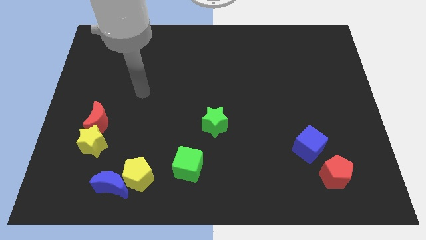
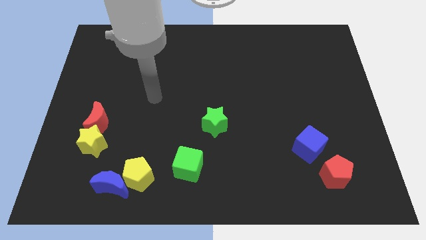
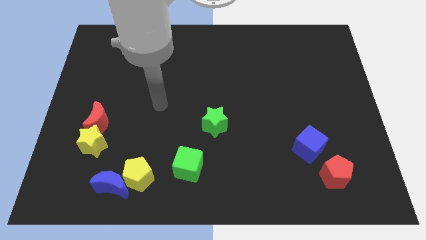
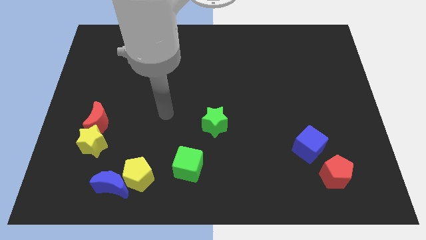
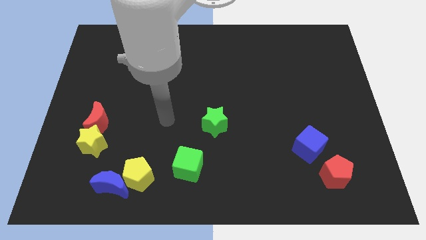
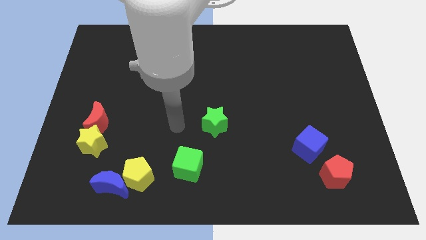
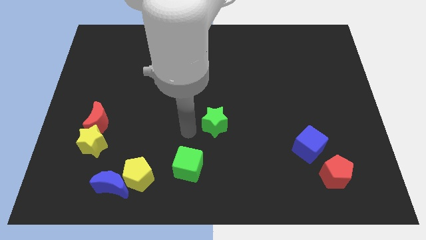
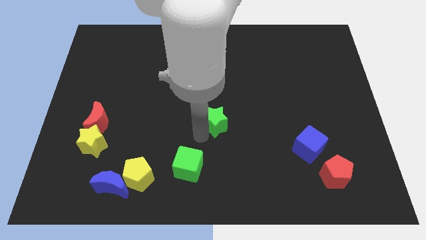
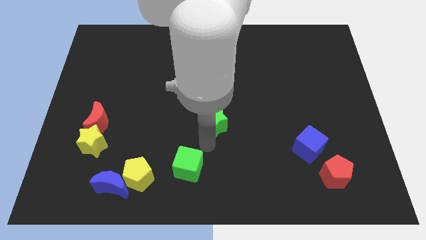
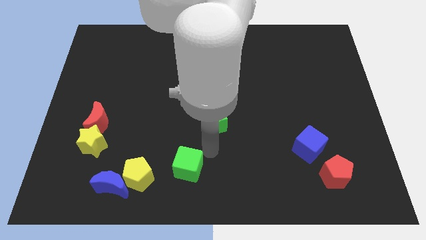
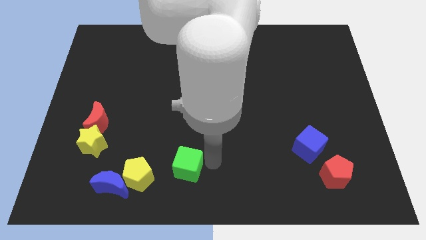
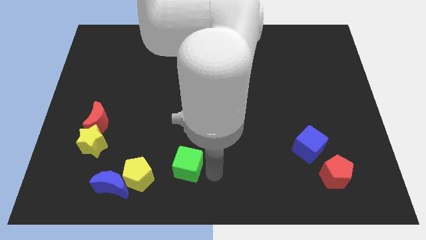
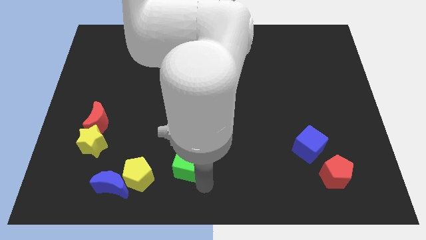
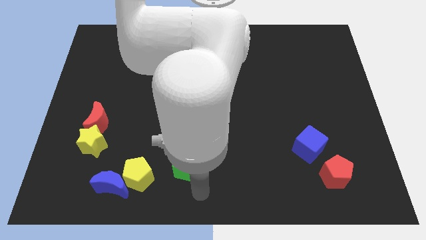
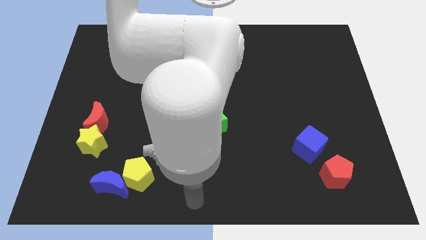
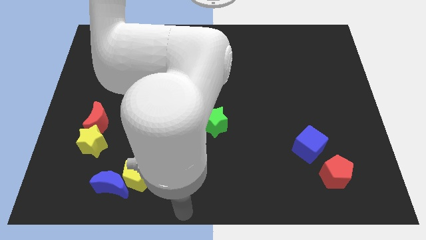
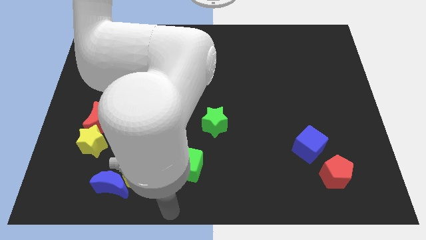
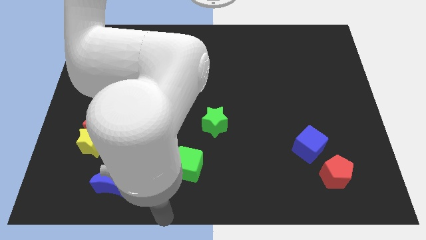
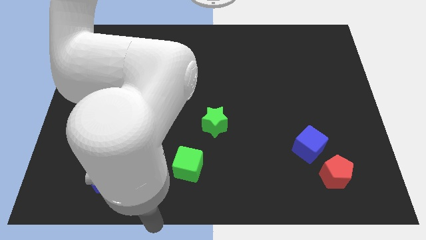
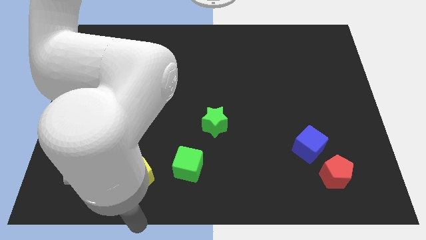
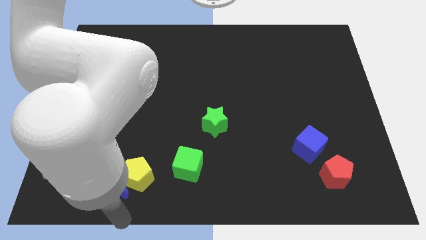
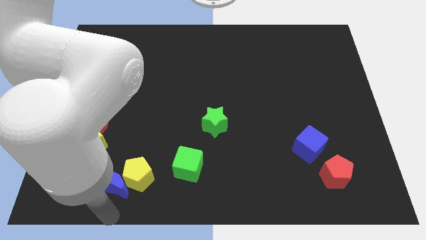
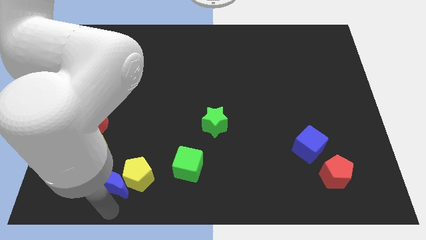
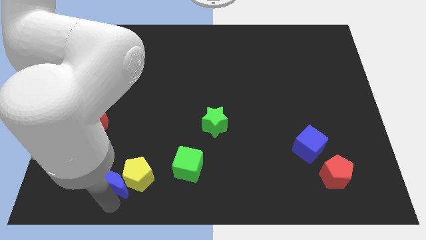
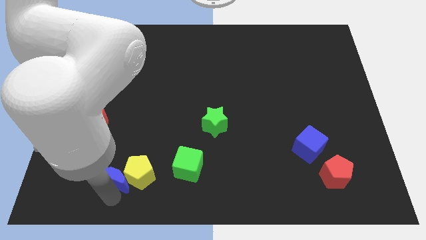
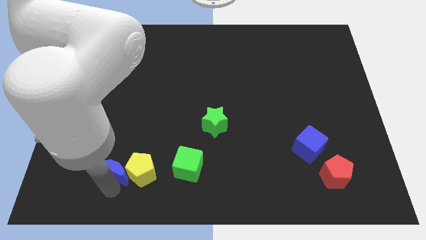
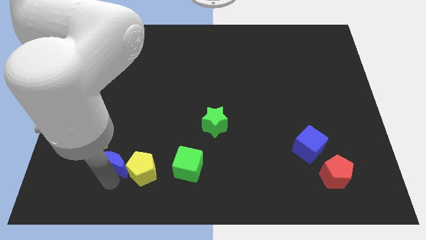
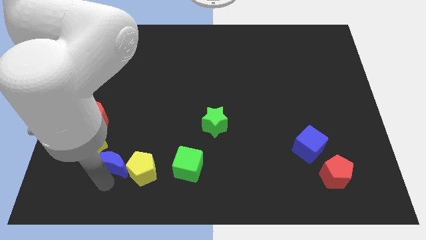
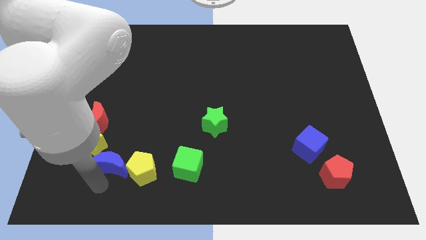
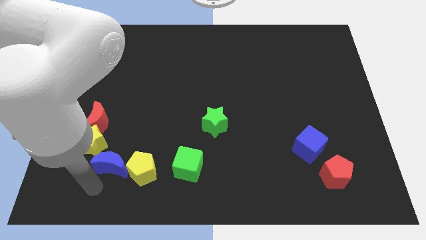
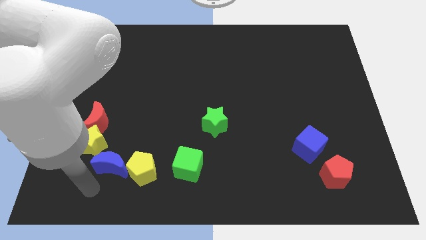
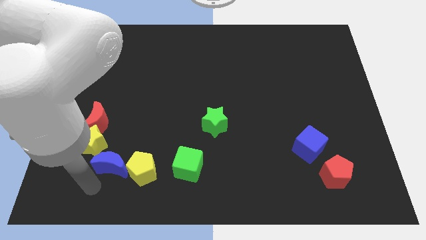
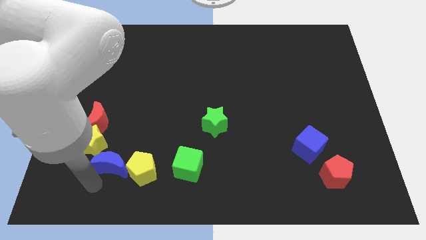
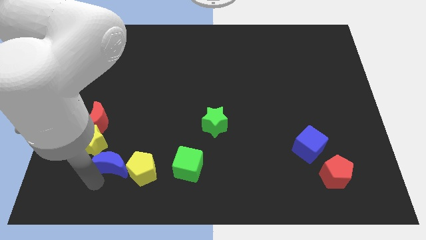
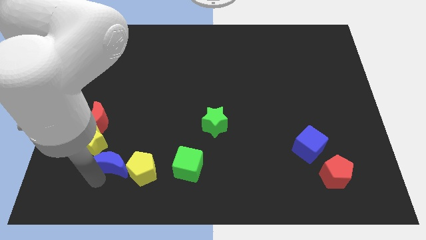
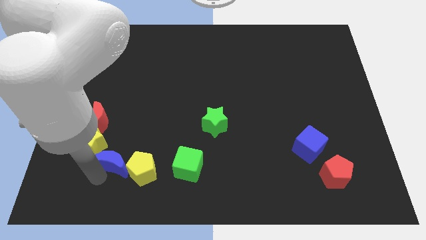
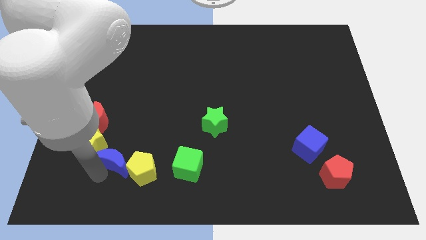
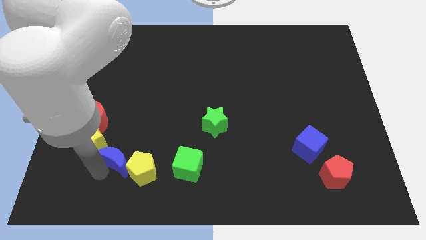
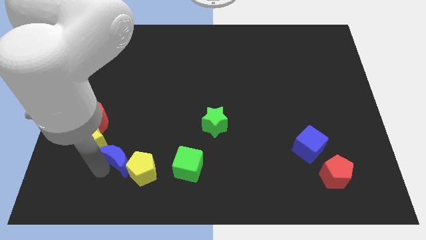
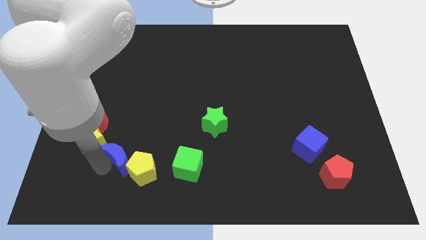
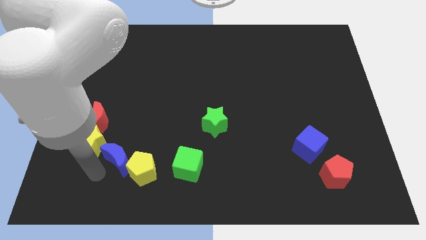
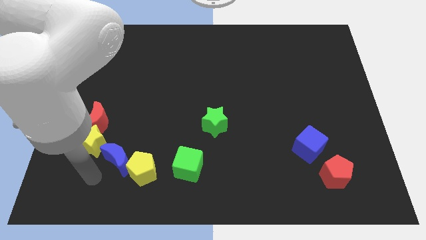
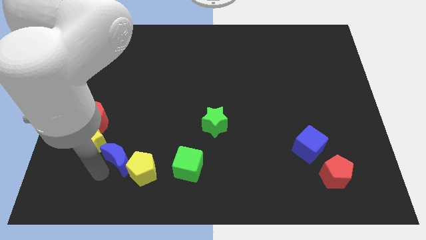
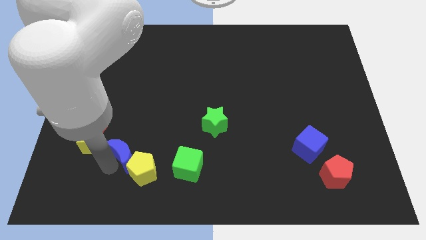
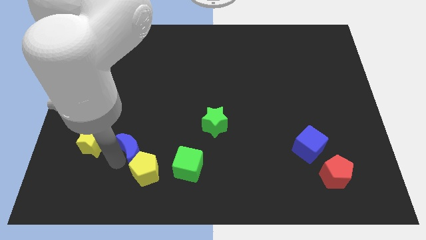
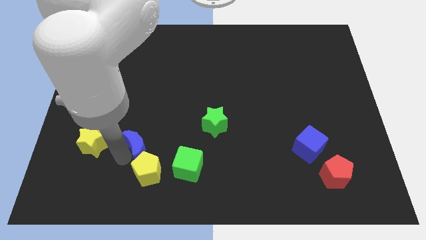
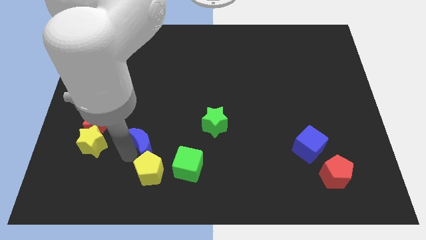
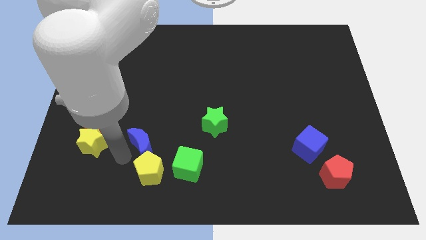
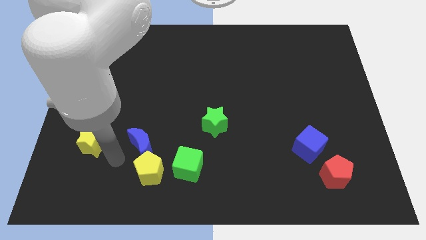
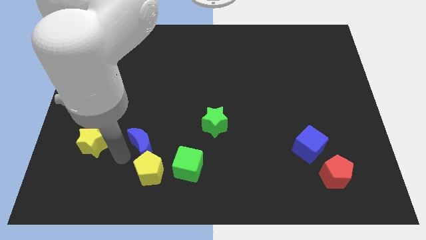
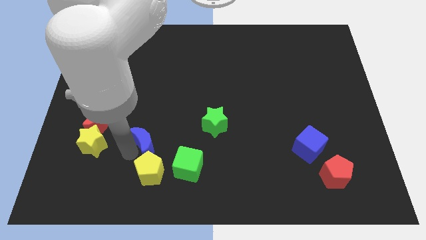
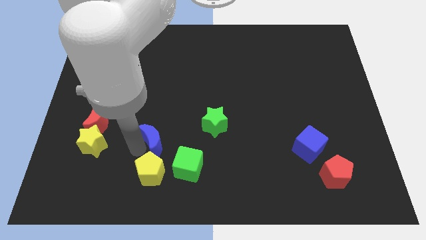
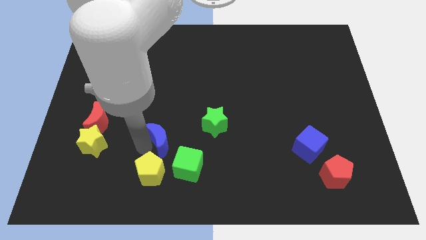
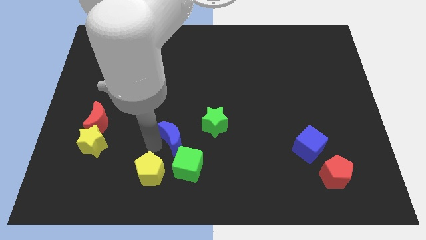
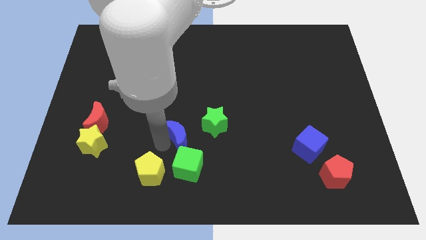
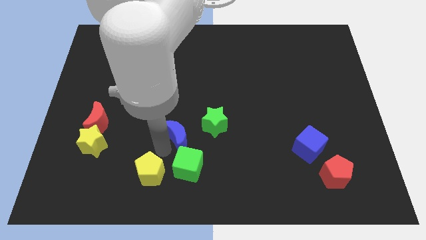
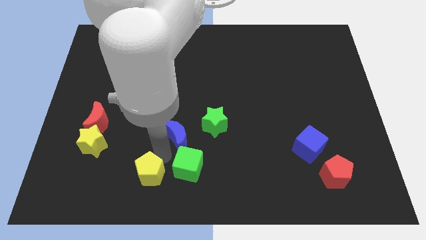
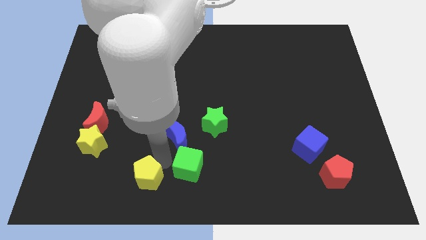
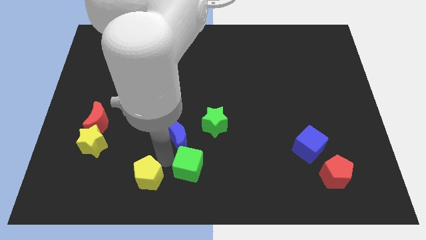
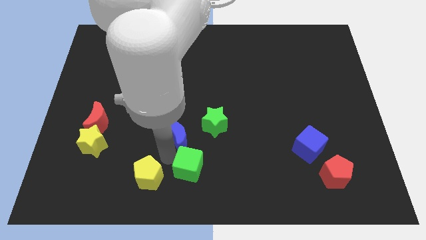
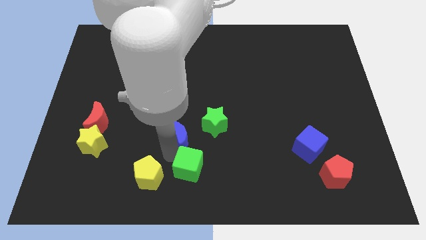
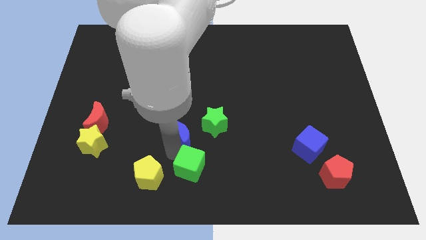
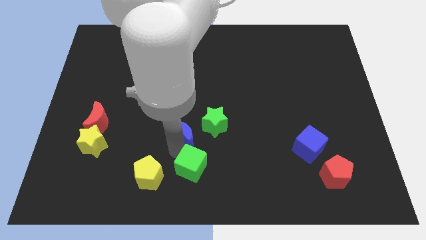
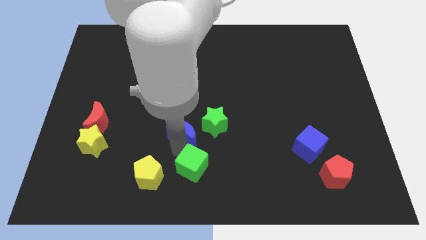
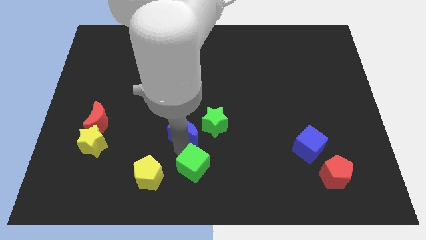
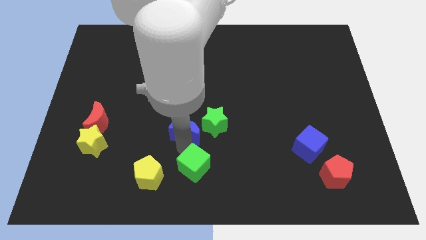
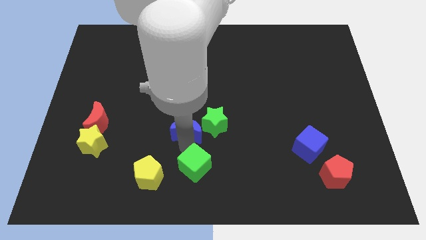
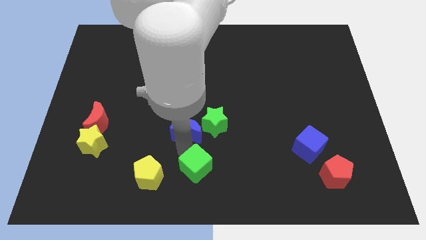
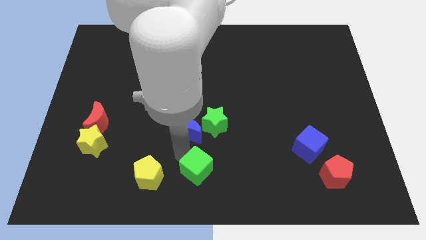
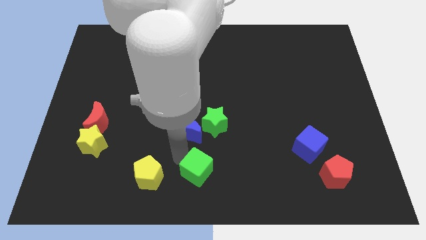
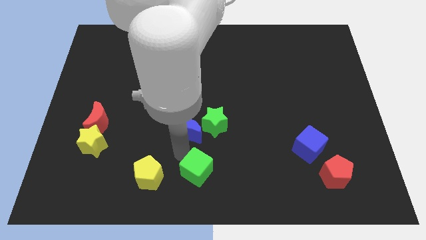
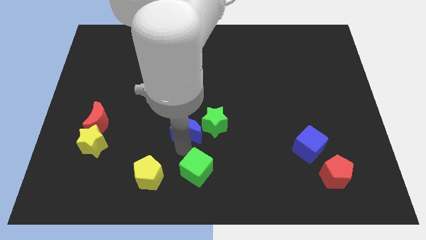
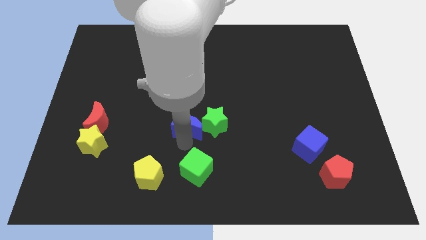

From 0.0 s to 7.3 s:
move the blue moon upwards and right diagonally

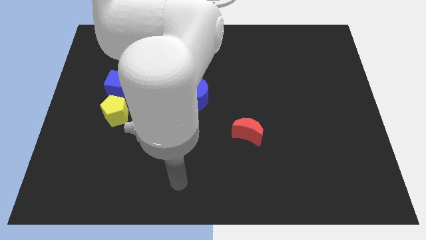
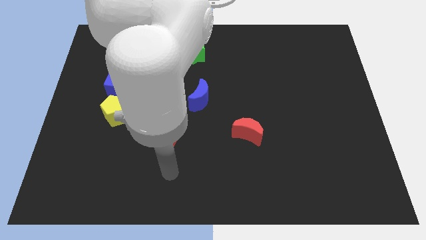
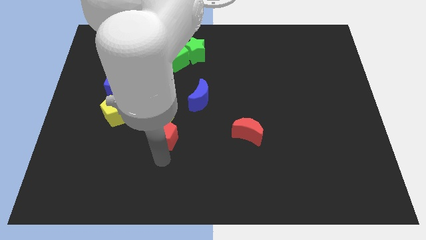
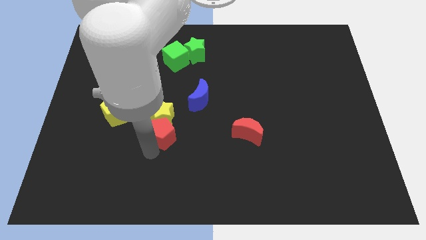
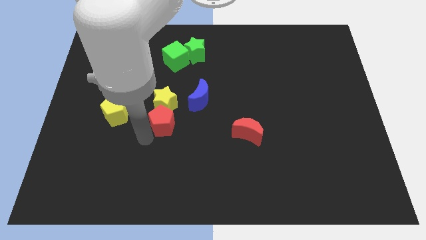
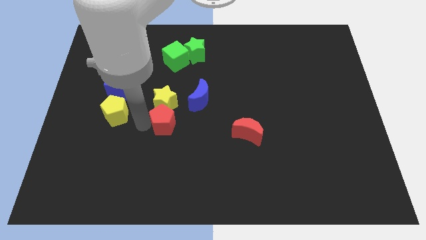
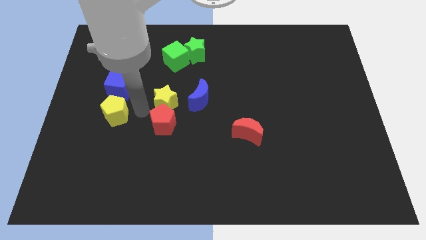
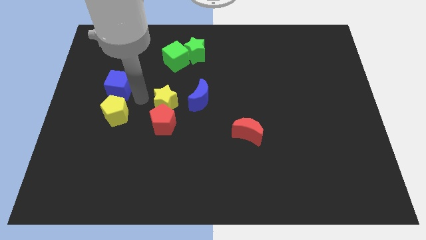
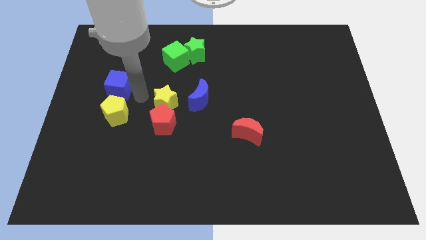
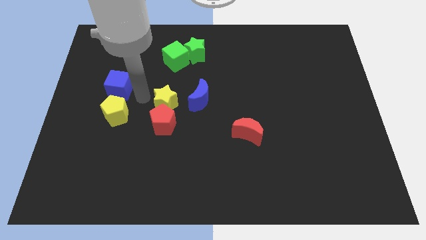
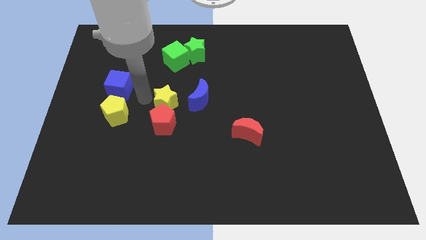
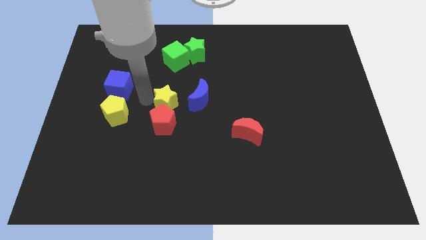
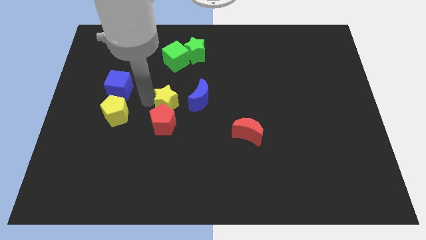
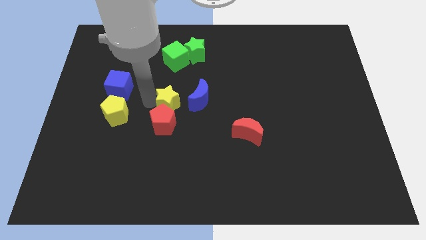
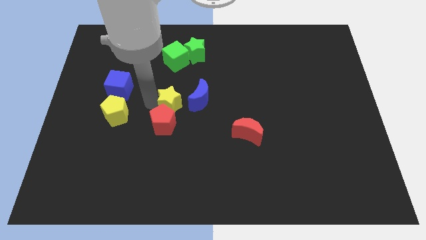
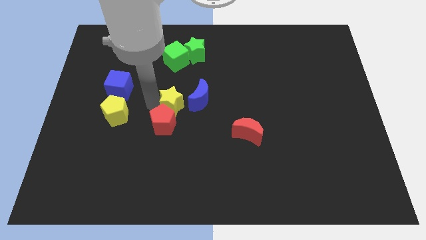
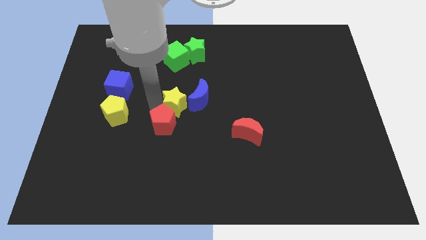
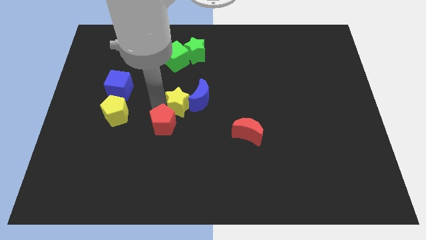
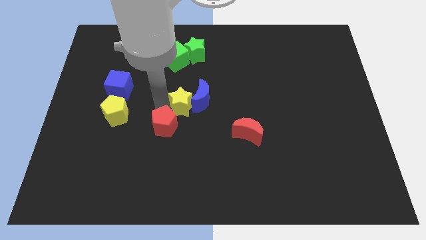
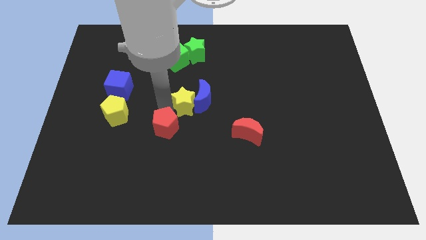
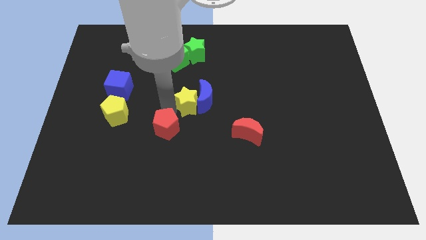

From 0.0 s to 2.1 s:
slightly slide the yellow star upwards and then right
